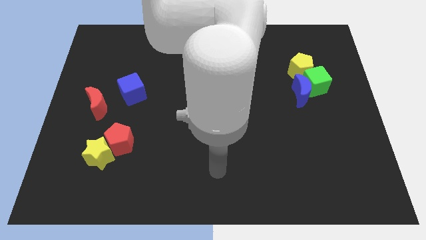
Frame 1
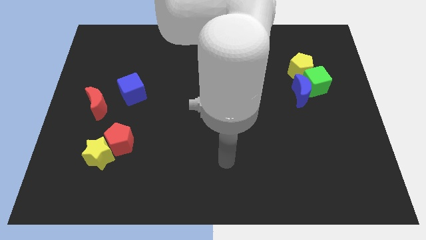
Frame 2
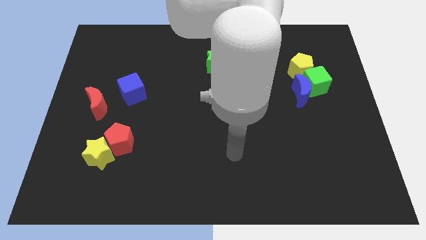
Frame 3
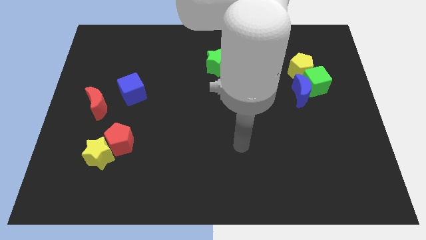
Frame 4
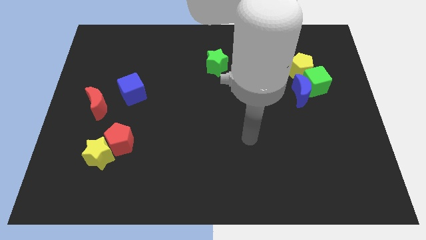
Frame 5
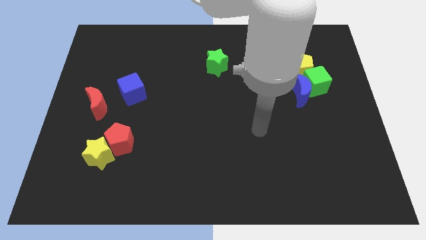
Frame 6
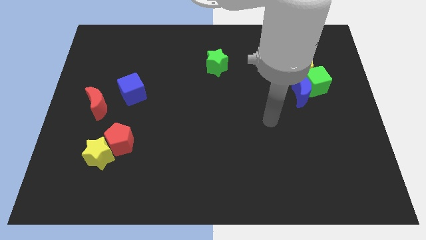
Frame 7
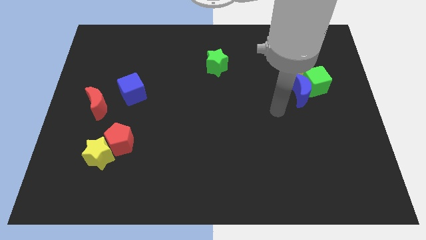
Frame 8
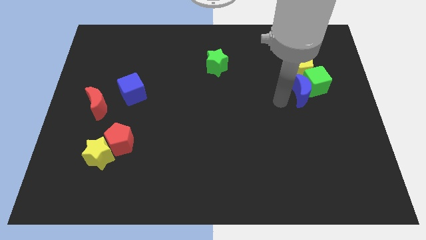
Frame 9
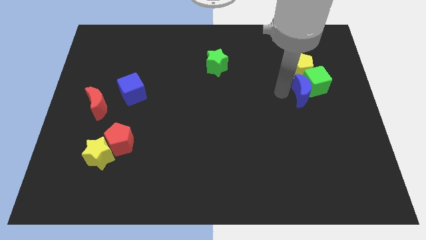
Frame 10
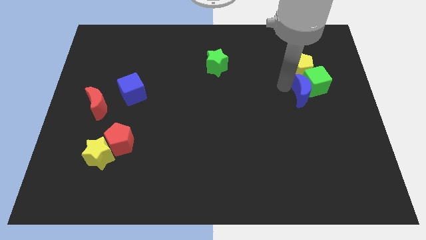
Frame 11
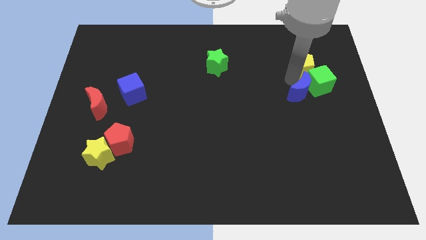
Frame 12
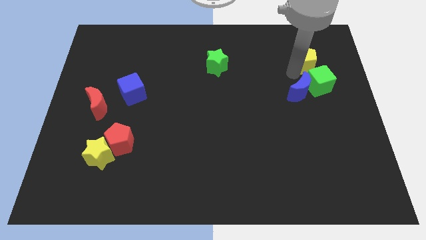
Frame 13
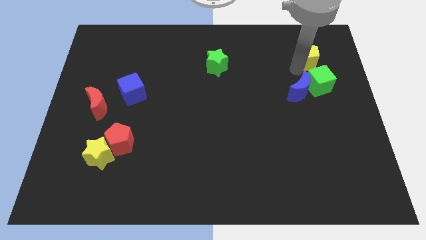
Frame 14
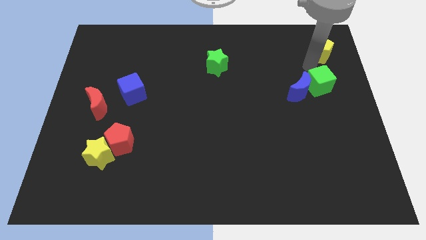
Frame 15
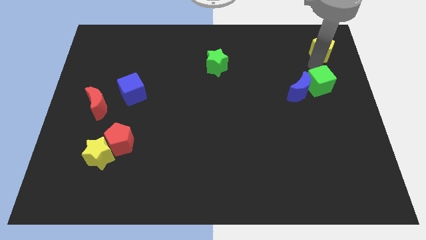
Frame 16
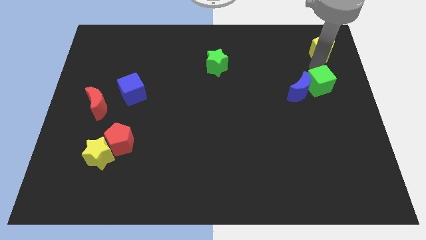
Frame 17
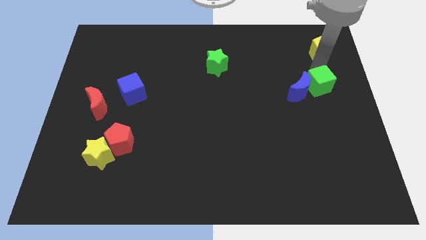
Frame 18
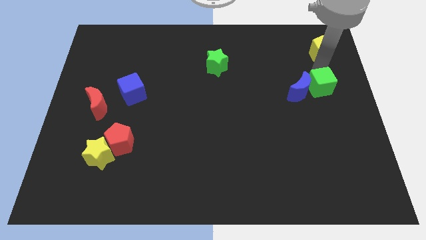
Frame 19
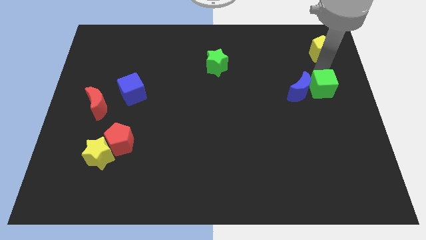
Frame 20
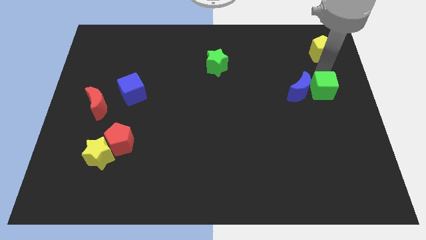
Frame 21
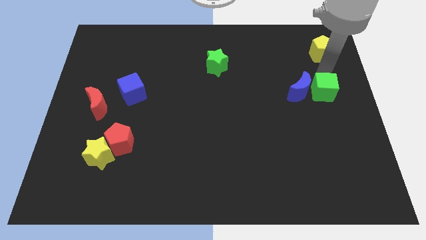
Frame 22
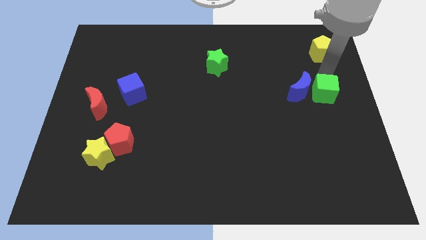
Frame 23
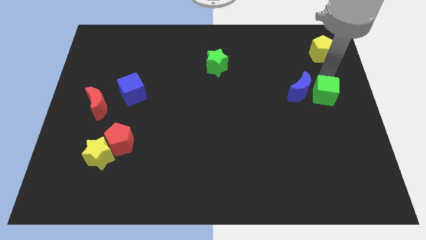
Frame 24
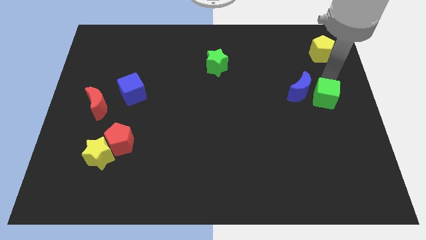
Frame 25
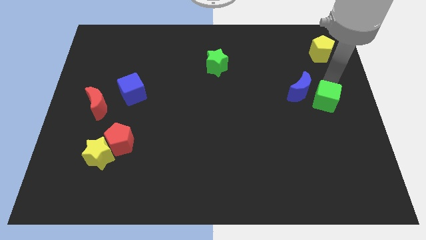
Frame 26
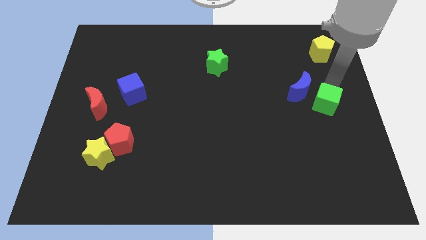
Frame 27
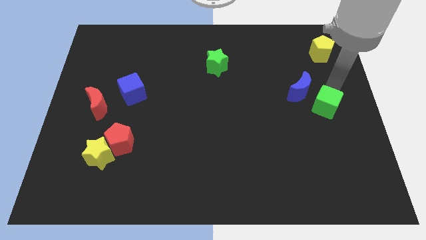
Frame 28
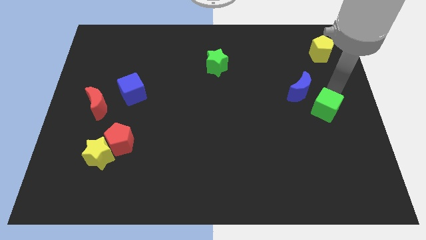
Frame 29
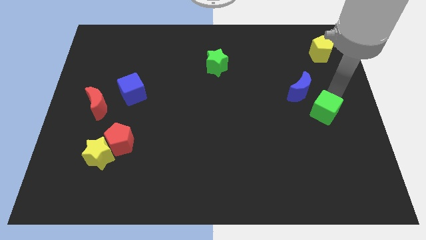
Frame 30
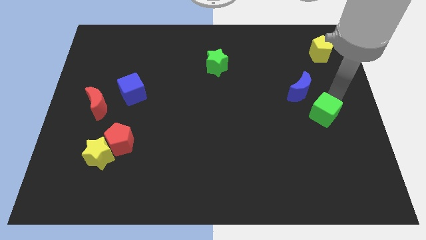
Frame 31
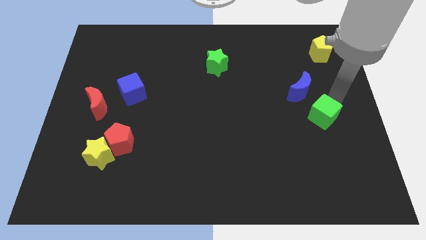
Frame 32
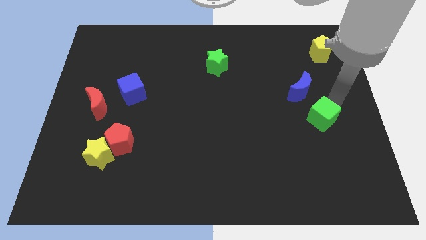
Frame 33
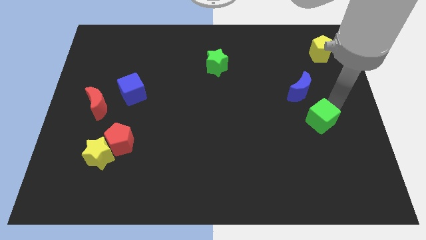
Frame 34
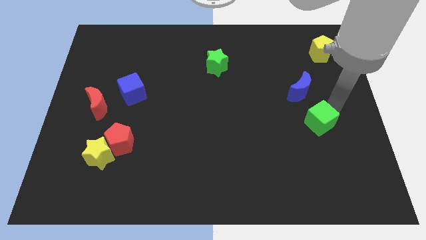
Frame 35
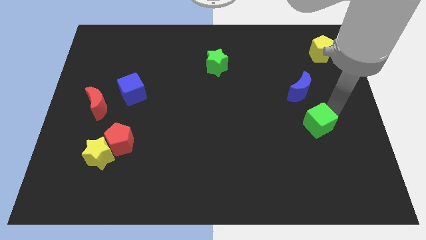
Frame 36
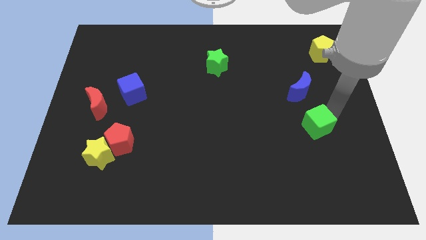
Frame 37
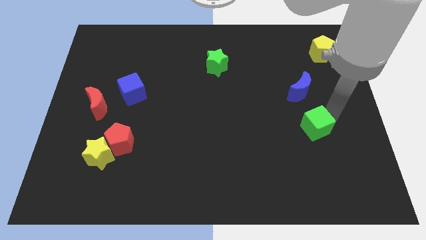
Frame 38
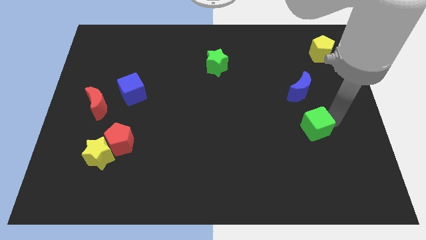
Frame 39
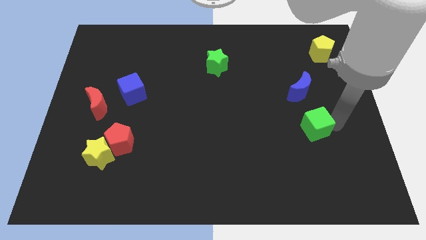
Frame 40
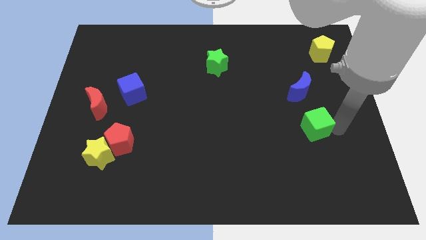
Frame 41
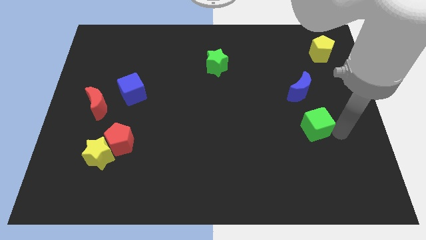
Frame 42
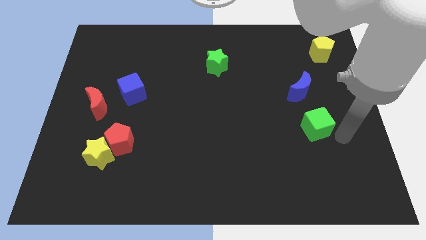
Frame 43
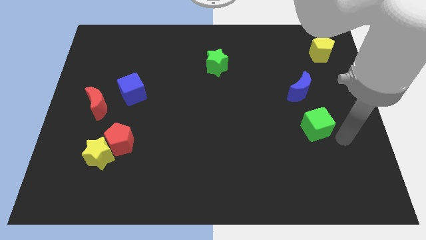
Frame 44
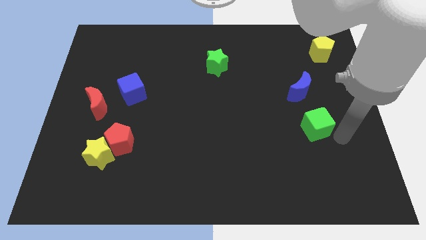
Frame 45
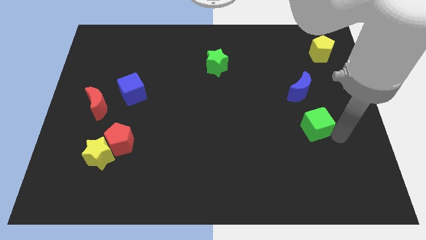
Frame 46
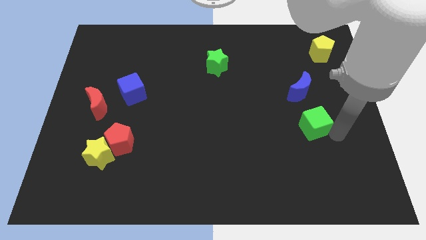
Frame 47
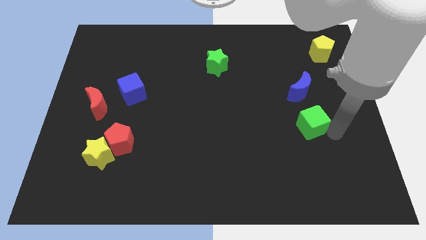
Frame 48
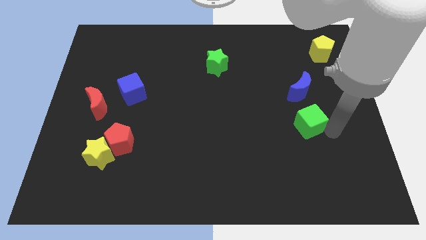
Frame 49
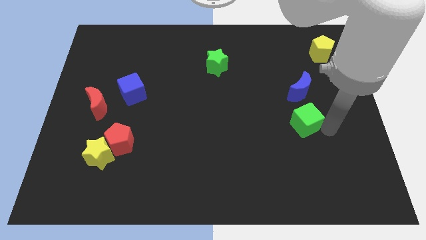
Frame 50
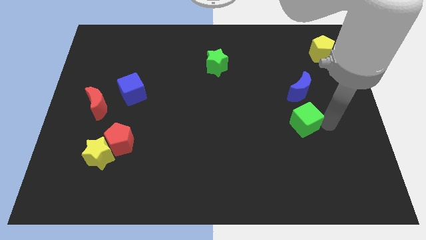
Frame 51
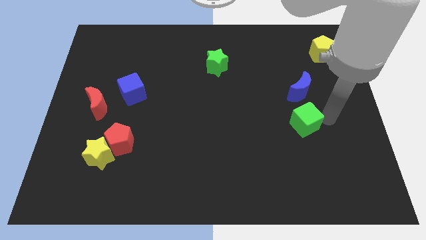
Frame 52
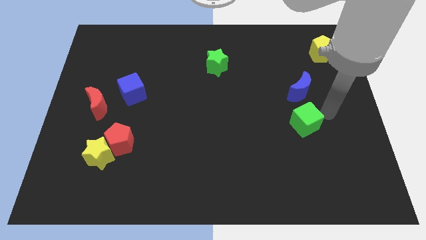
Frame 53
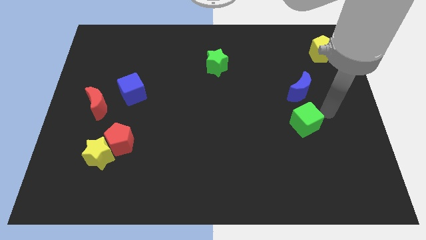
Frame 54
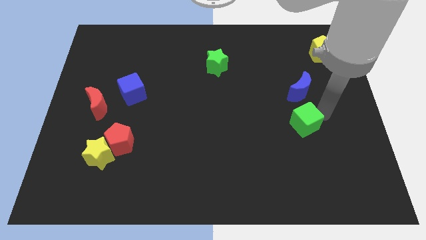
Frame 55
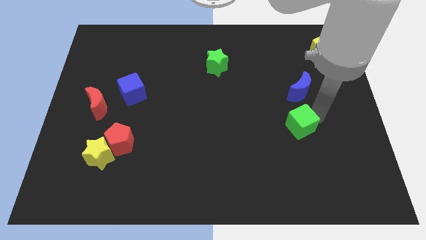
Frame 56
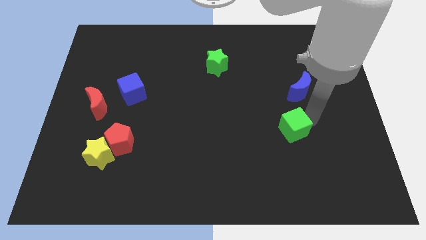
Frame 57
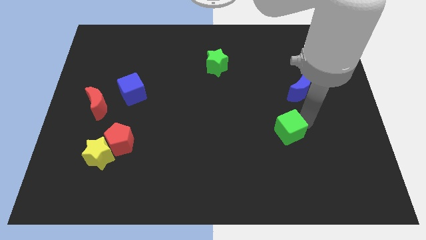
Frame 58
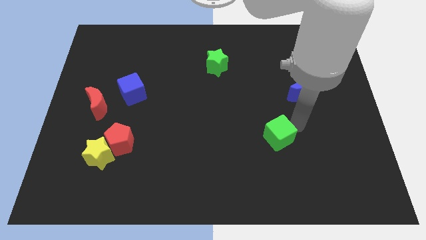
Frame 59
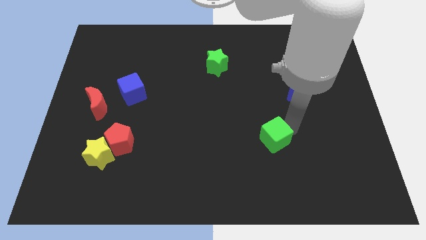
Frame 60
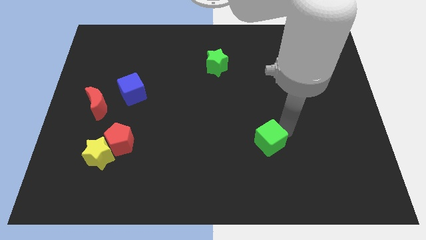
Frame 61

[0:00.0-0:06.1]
slide the green cube downwards and then left

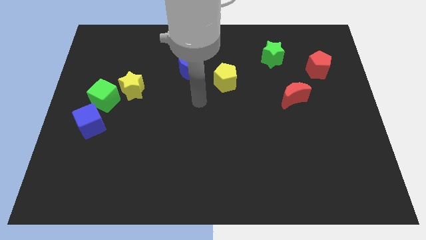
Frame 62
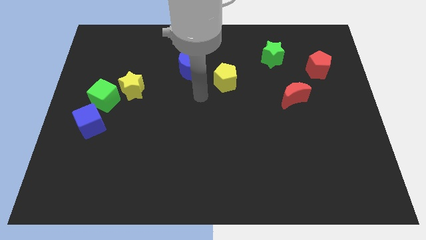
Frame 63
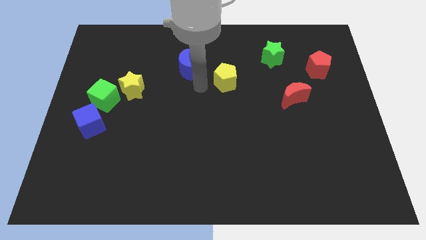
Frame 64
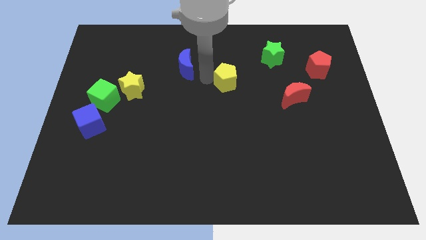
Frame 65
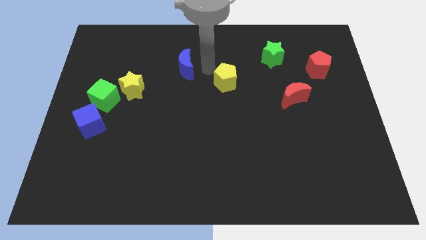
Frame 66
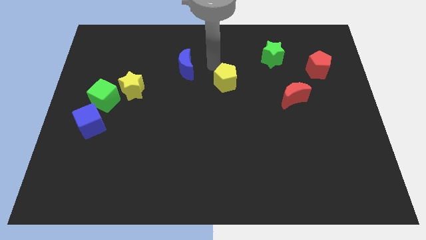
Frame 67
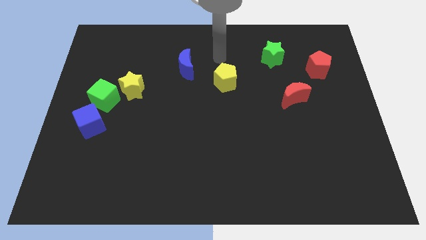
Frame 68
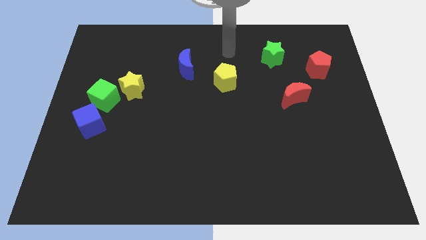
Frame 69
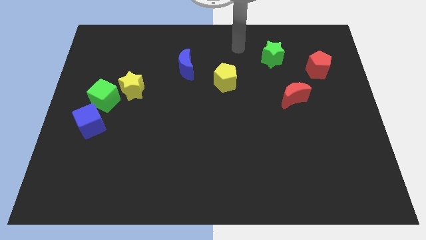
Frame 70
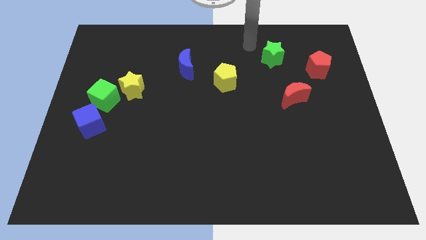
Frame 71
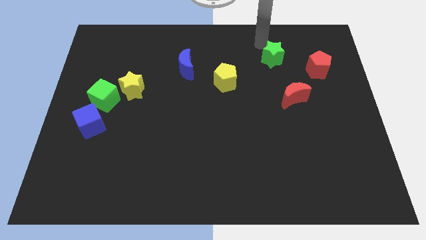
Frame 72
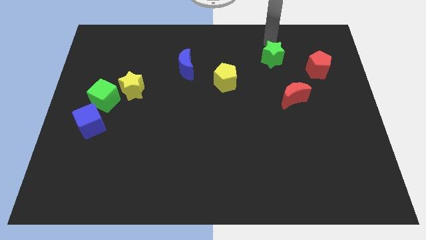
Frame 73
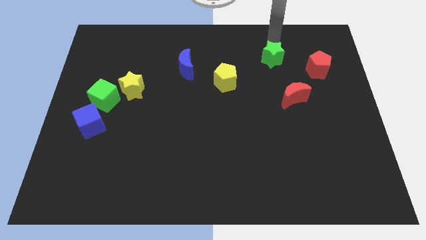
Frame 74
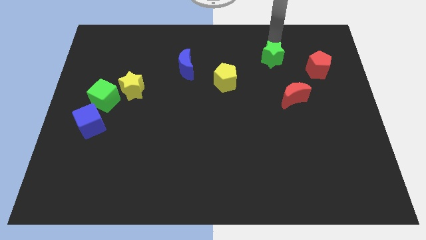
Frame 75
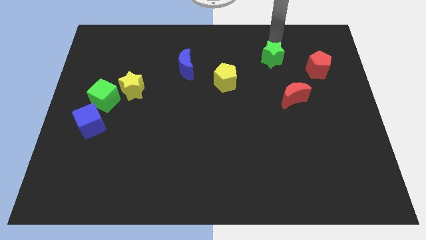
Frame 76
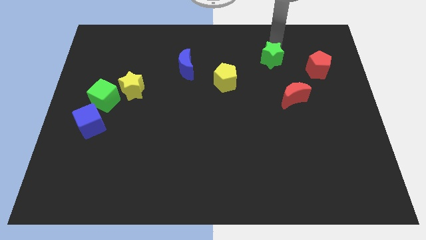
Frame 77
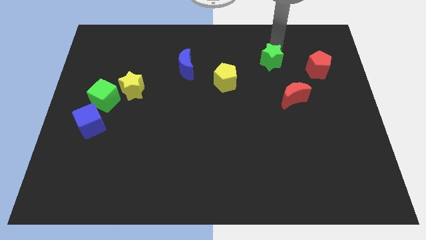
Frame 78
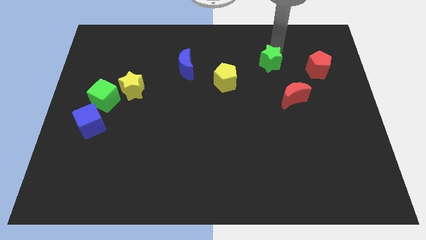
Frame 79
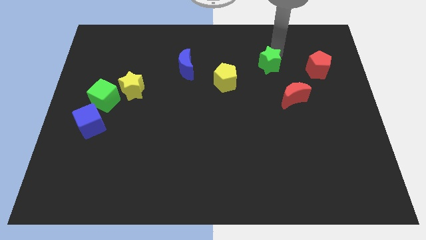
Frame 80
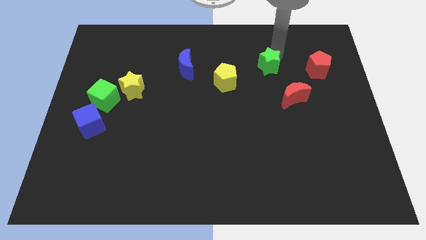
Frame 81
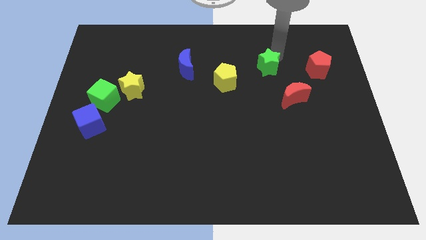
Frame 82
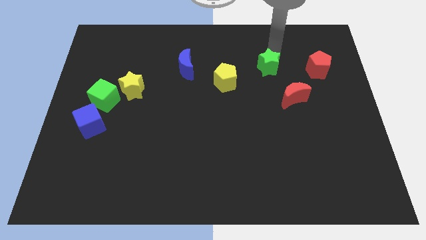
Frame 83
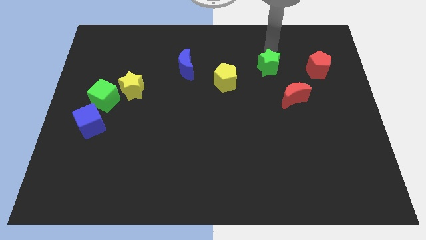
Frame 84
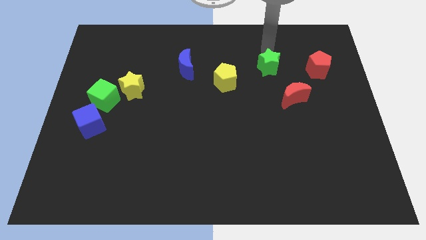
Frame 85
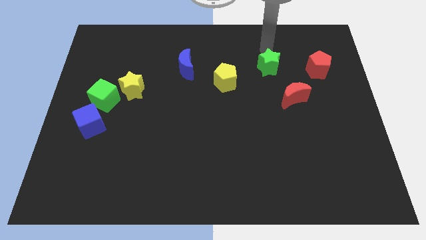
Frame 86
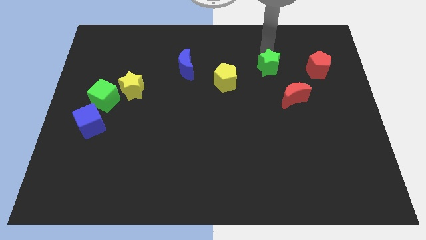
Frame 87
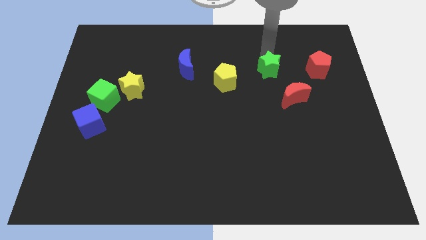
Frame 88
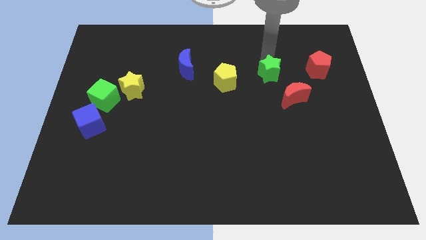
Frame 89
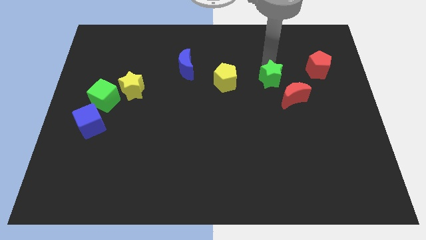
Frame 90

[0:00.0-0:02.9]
slide the green star a little downwards
